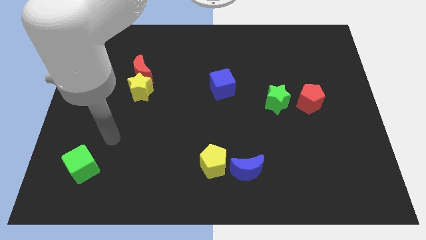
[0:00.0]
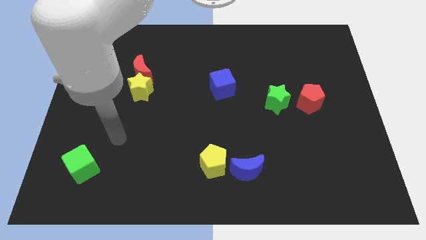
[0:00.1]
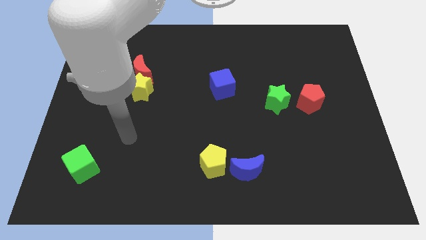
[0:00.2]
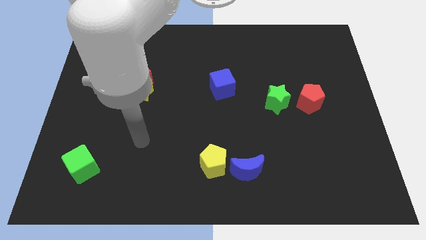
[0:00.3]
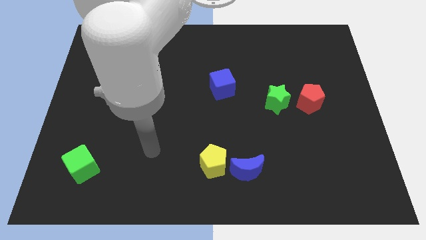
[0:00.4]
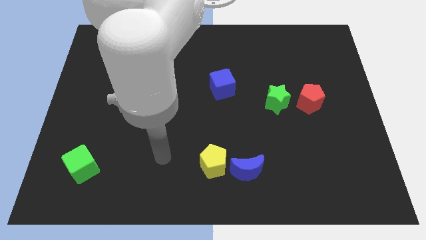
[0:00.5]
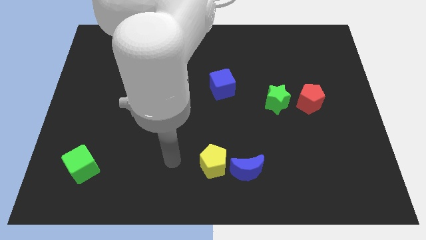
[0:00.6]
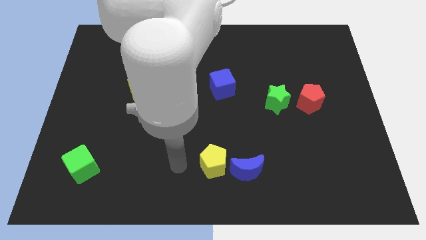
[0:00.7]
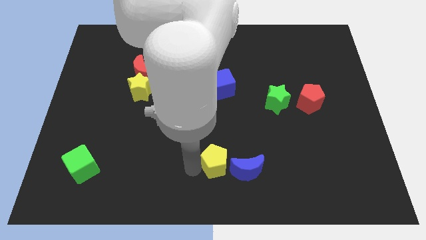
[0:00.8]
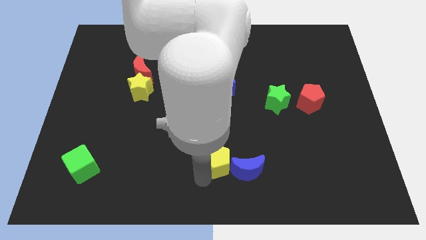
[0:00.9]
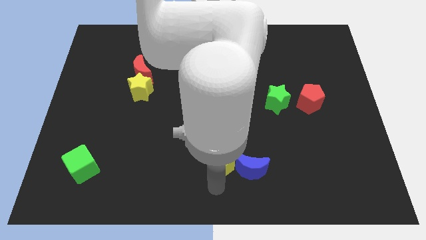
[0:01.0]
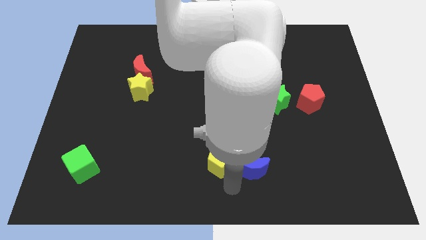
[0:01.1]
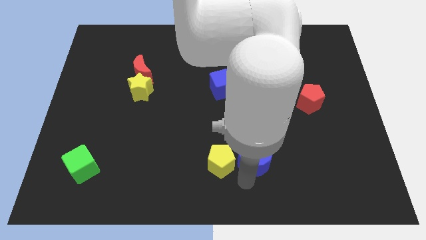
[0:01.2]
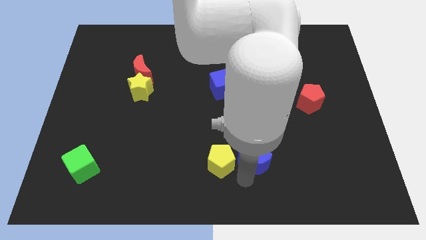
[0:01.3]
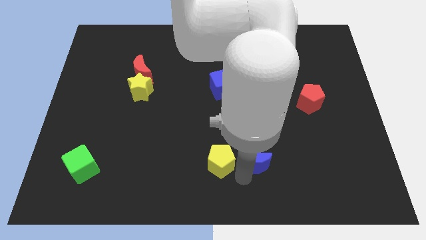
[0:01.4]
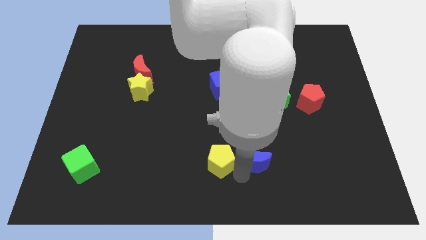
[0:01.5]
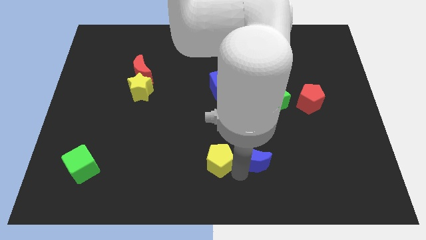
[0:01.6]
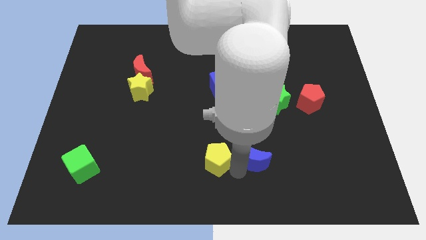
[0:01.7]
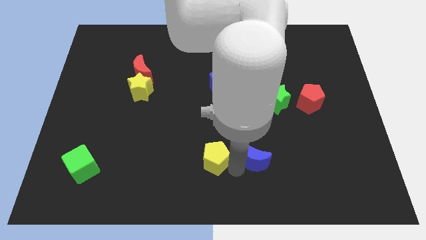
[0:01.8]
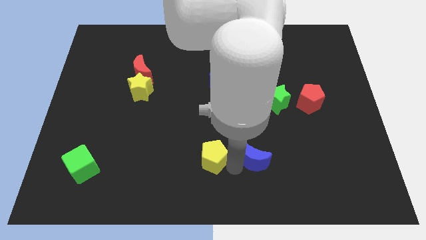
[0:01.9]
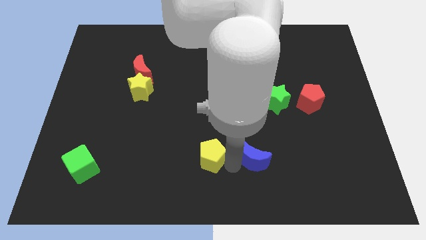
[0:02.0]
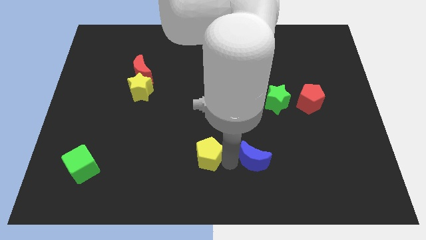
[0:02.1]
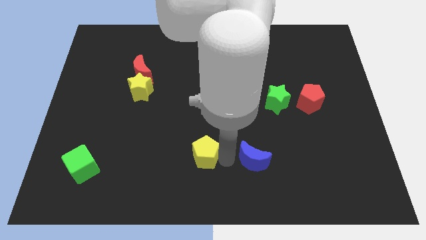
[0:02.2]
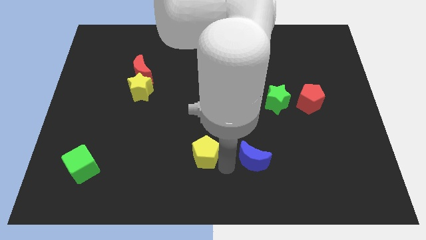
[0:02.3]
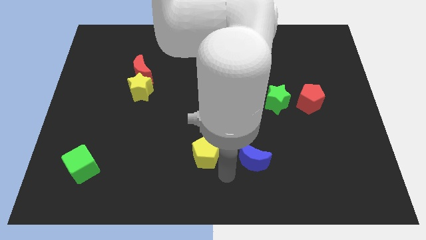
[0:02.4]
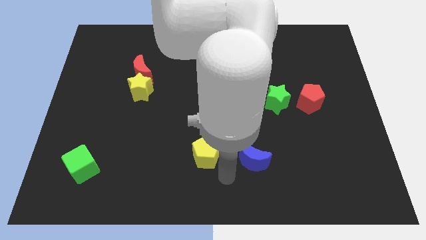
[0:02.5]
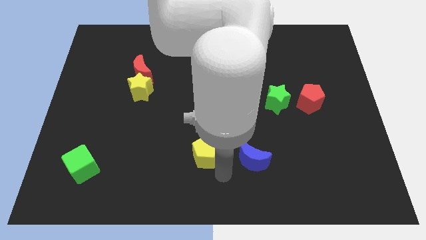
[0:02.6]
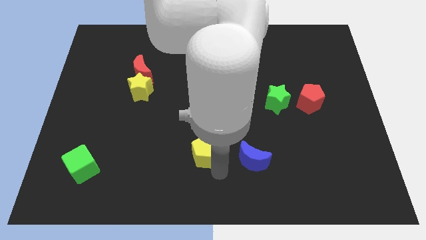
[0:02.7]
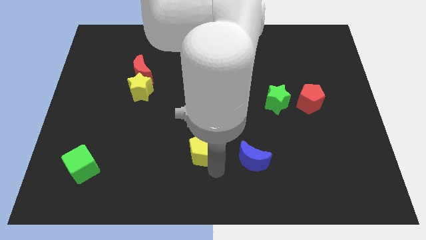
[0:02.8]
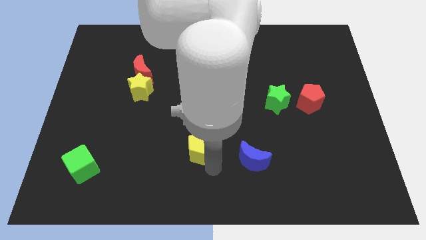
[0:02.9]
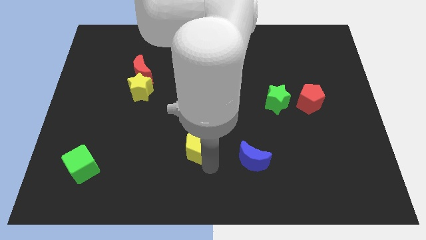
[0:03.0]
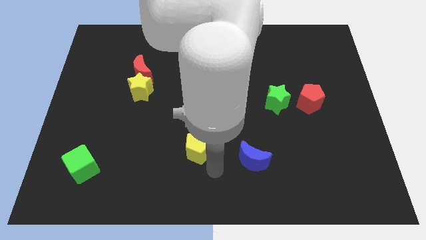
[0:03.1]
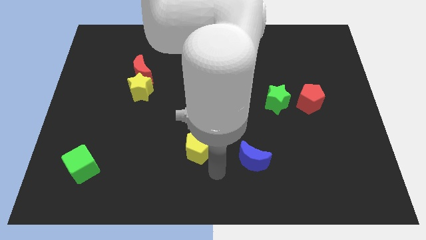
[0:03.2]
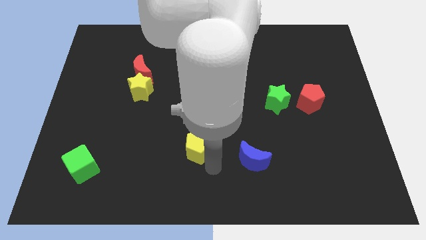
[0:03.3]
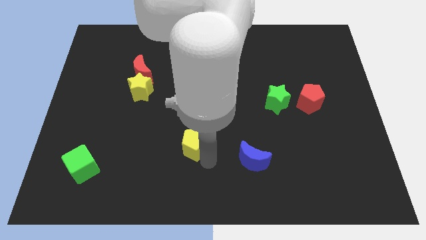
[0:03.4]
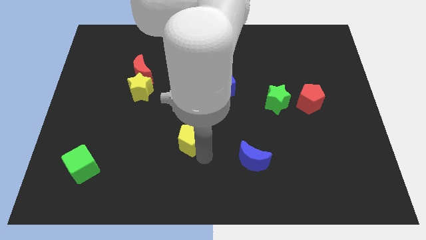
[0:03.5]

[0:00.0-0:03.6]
slightly push the yellow pentagon diagonally up and left

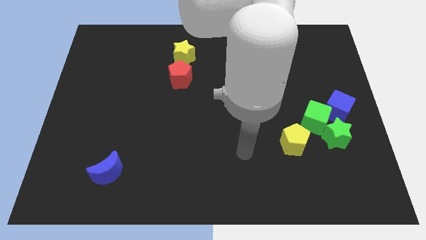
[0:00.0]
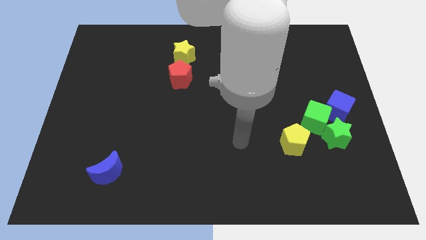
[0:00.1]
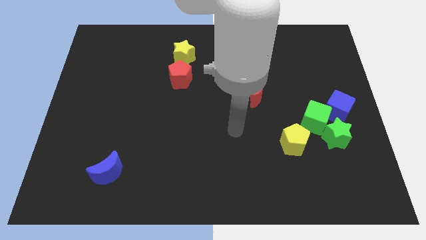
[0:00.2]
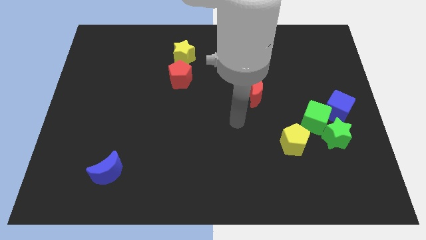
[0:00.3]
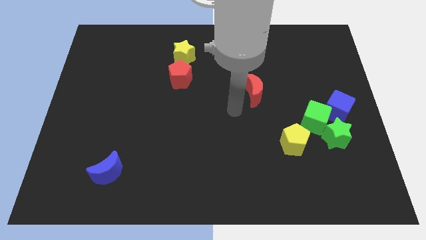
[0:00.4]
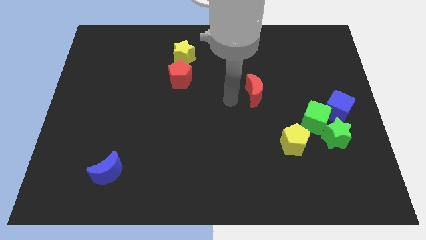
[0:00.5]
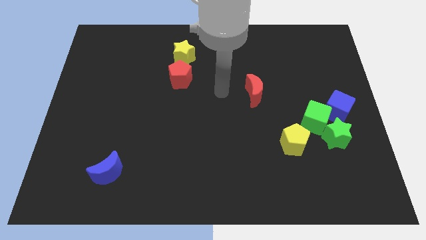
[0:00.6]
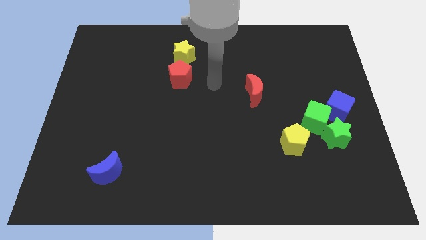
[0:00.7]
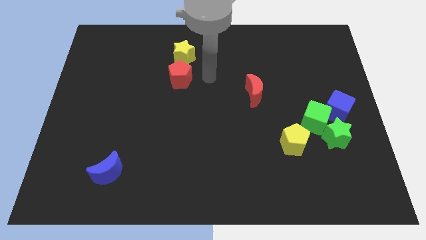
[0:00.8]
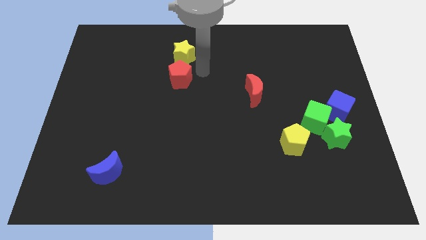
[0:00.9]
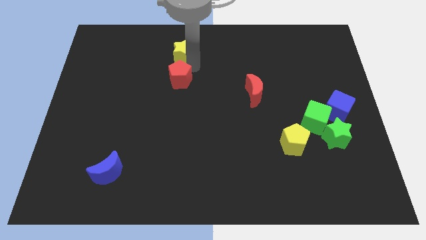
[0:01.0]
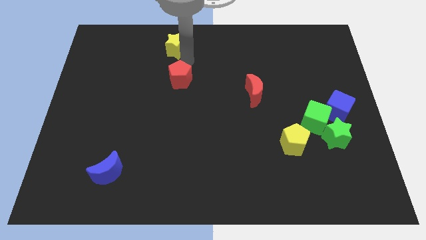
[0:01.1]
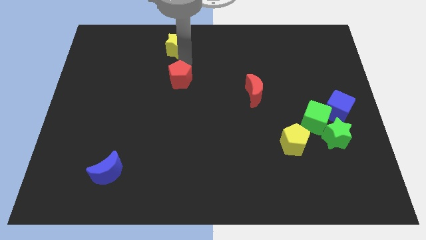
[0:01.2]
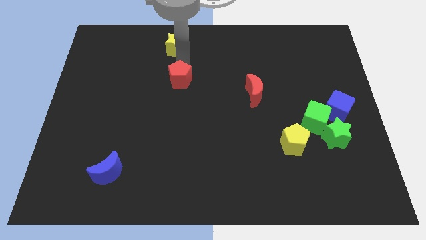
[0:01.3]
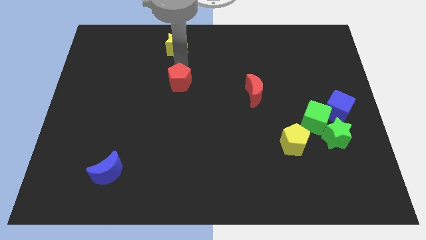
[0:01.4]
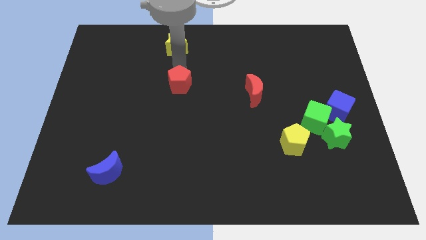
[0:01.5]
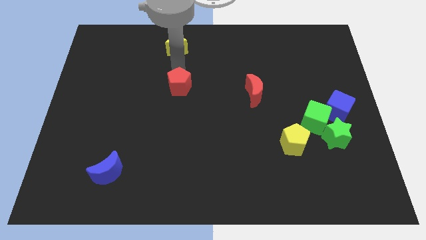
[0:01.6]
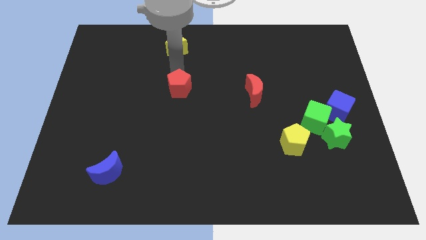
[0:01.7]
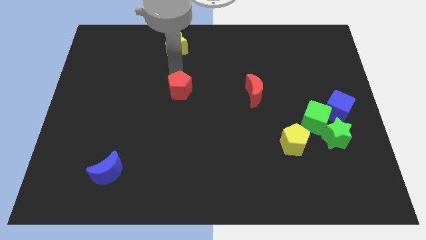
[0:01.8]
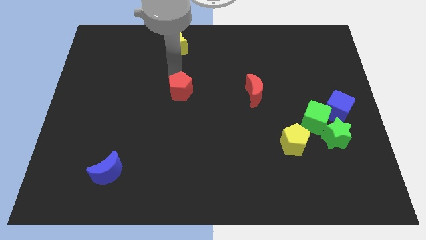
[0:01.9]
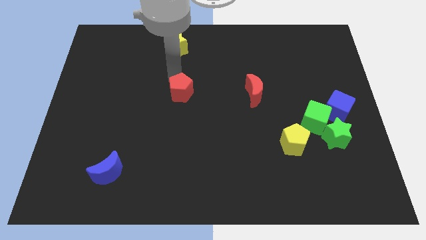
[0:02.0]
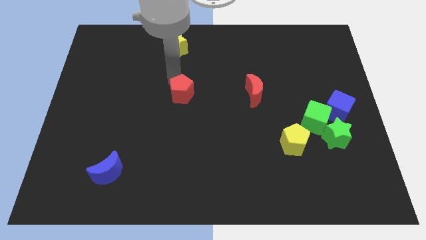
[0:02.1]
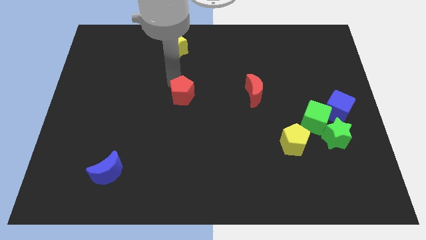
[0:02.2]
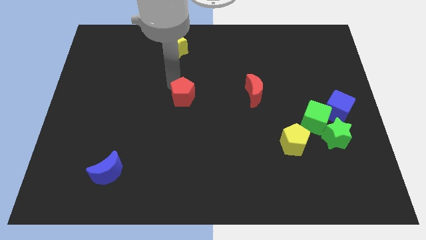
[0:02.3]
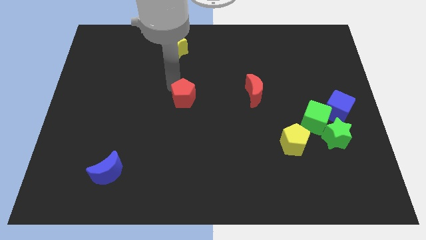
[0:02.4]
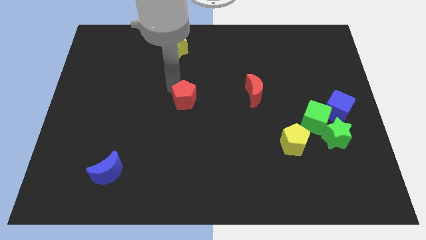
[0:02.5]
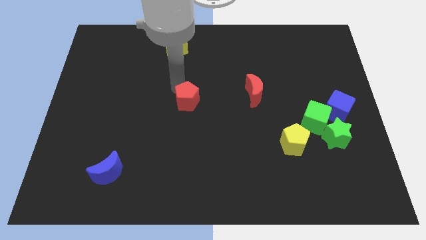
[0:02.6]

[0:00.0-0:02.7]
slightly push the red pentagon downwards

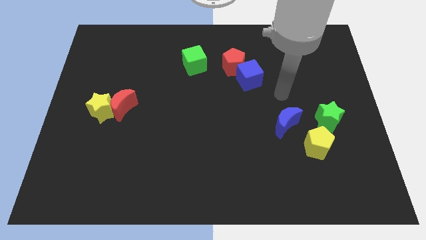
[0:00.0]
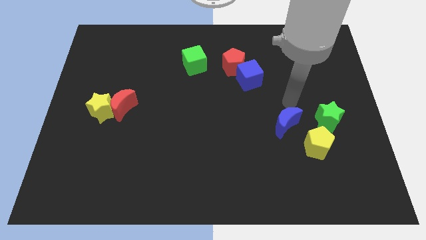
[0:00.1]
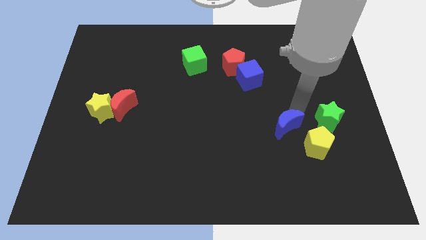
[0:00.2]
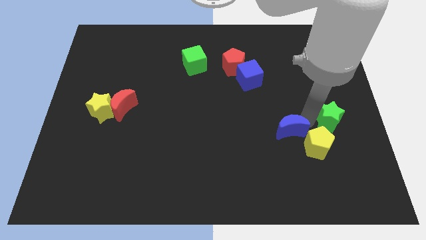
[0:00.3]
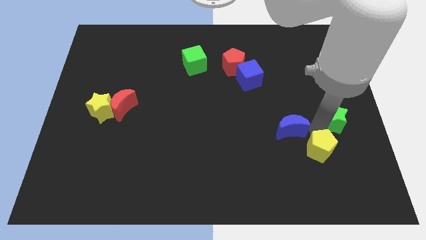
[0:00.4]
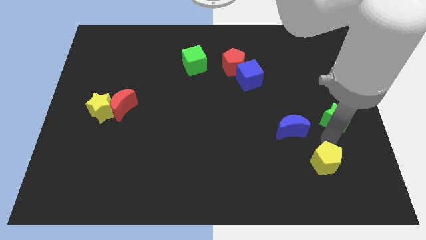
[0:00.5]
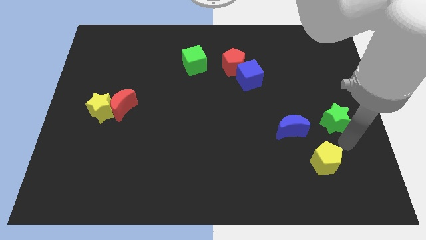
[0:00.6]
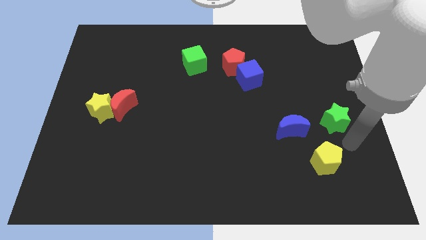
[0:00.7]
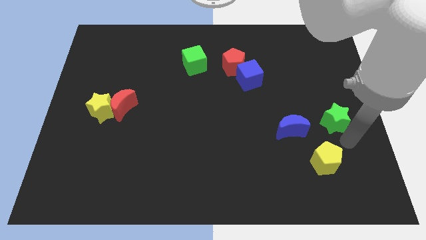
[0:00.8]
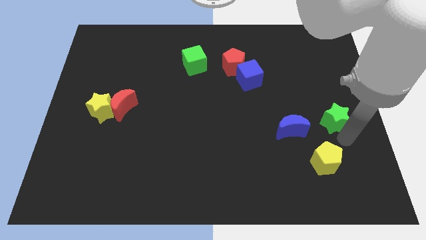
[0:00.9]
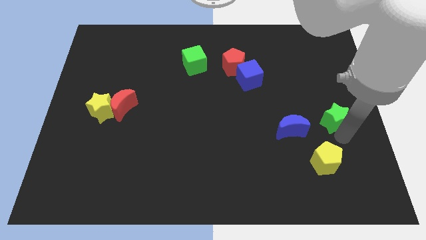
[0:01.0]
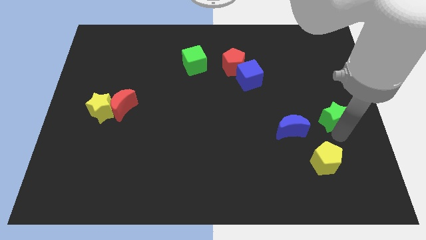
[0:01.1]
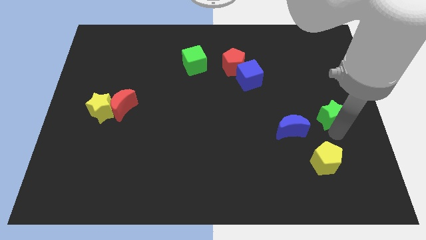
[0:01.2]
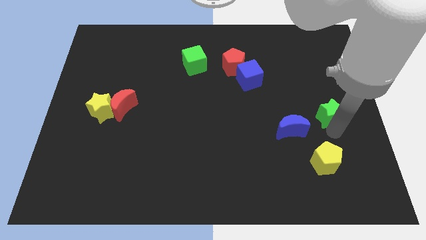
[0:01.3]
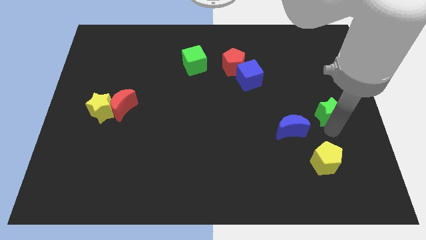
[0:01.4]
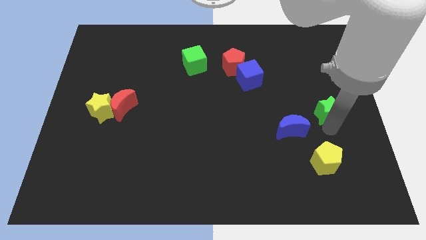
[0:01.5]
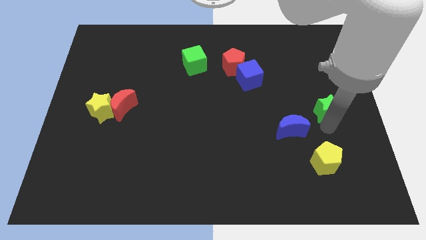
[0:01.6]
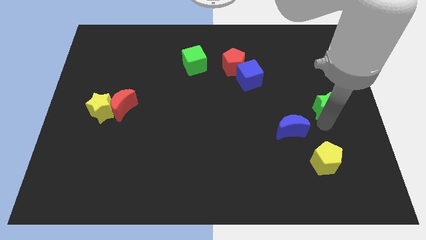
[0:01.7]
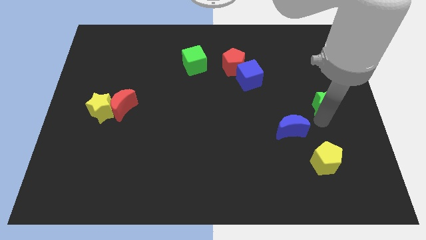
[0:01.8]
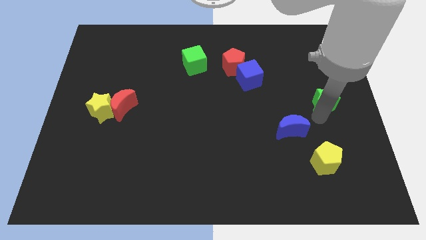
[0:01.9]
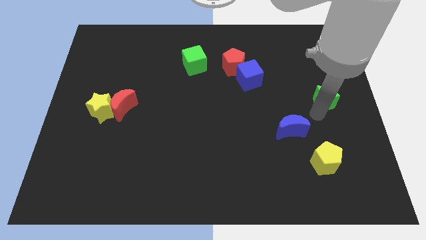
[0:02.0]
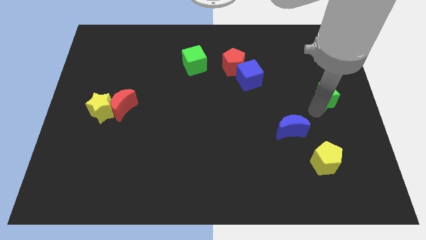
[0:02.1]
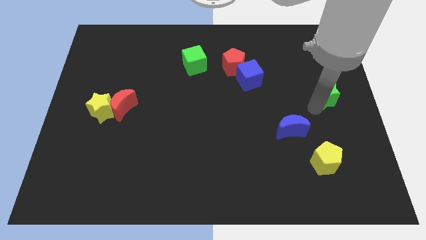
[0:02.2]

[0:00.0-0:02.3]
slightly move the green star up

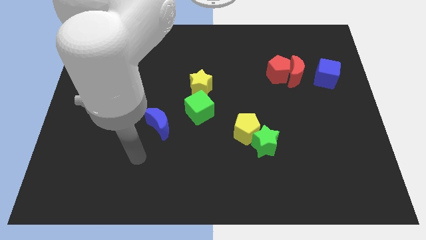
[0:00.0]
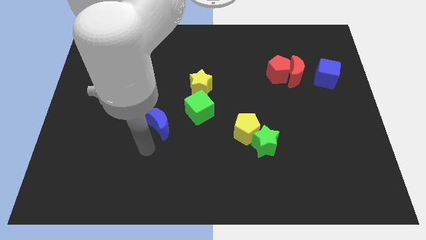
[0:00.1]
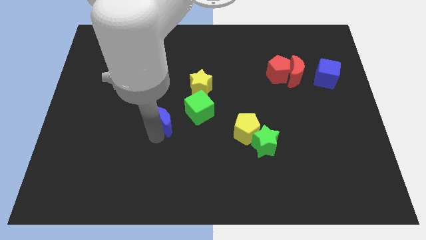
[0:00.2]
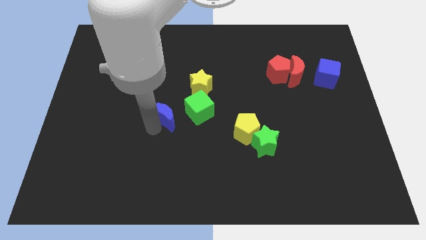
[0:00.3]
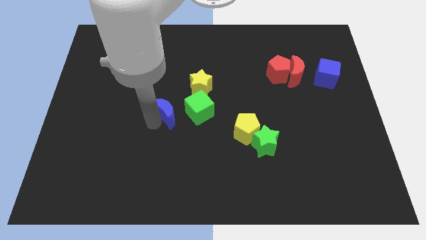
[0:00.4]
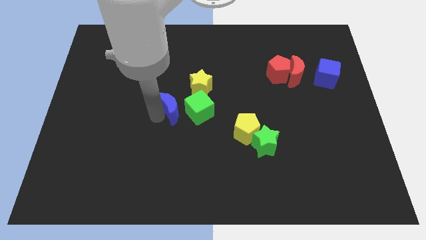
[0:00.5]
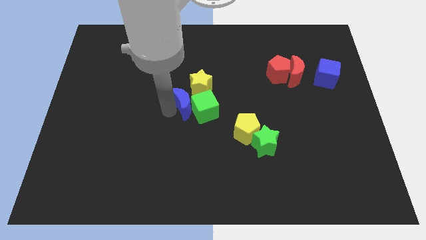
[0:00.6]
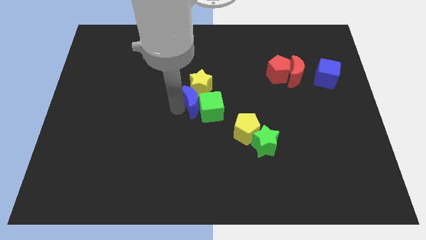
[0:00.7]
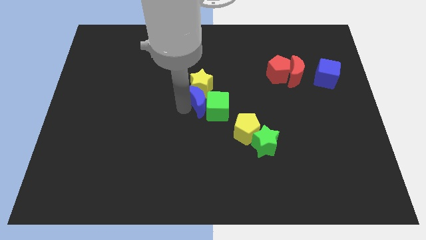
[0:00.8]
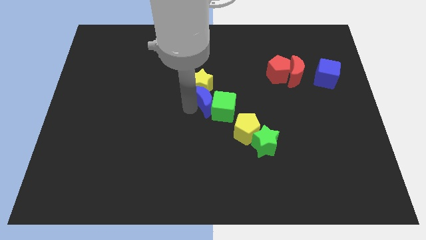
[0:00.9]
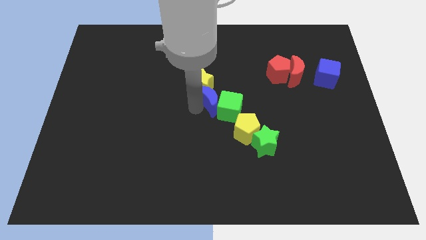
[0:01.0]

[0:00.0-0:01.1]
push the green cube right a bit
